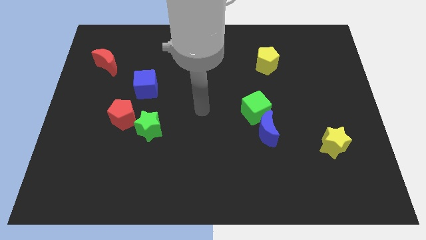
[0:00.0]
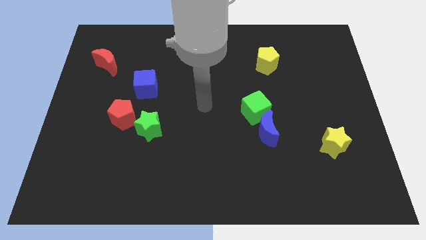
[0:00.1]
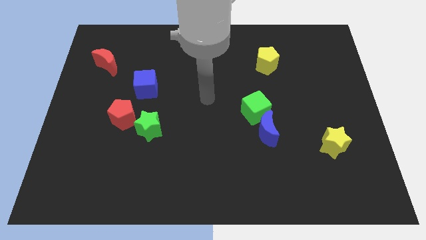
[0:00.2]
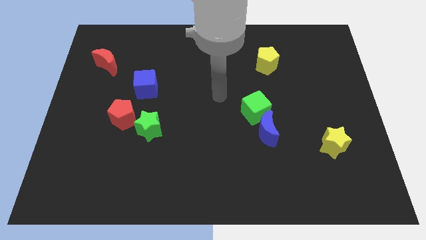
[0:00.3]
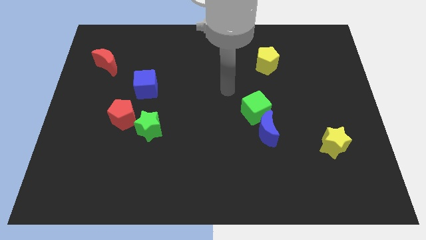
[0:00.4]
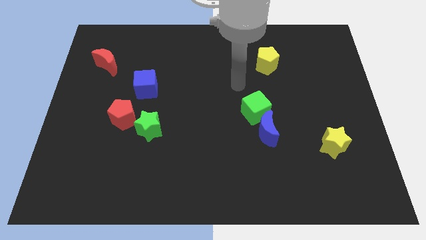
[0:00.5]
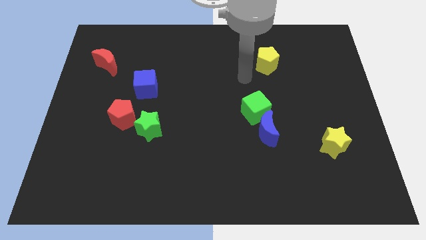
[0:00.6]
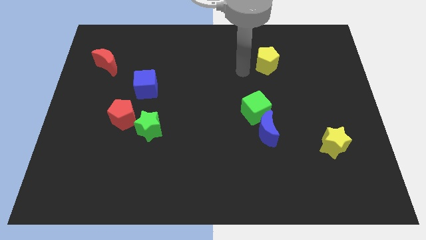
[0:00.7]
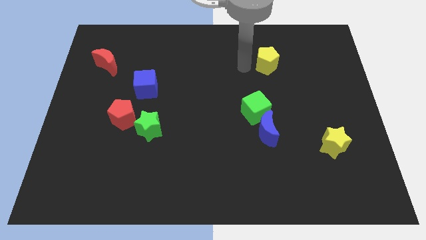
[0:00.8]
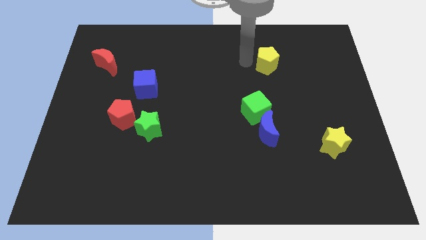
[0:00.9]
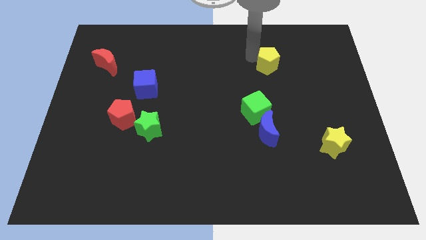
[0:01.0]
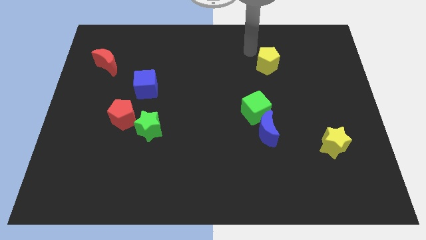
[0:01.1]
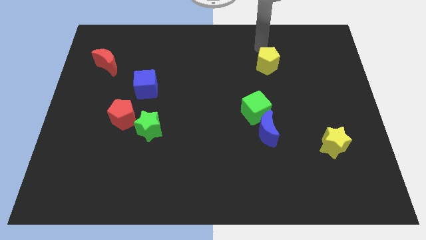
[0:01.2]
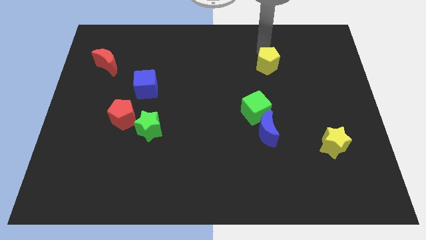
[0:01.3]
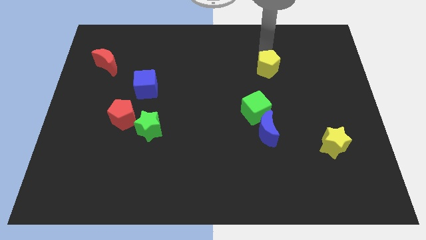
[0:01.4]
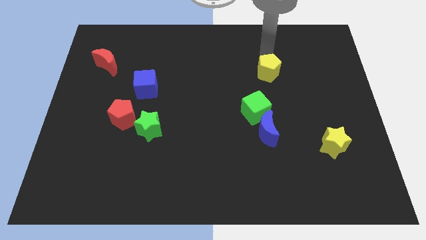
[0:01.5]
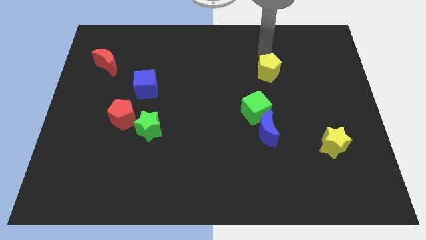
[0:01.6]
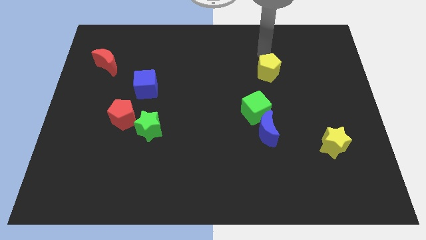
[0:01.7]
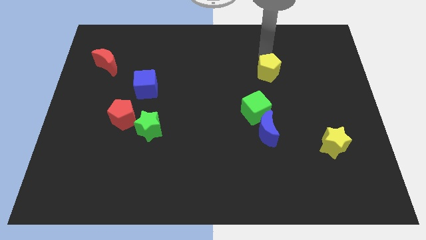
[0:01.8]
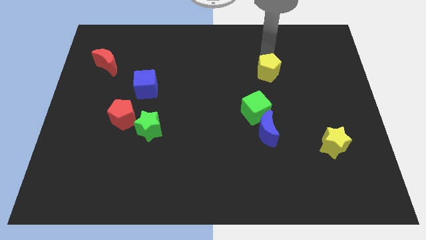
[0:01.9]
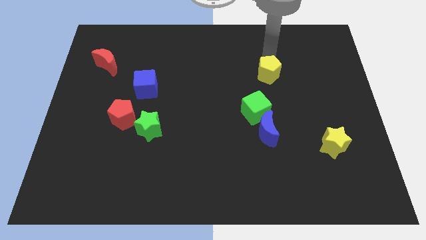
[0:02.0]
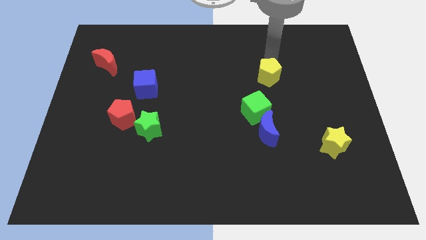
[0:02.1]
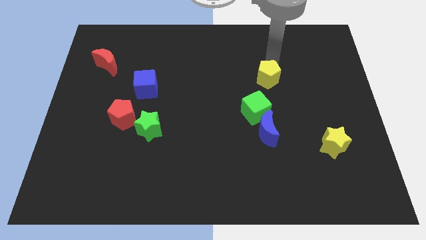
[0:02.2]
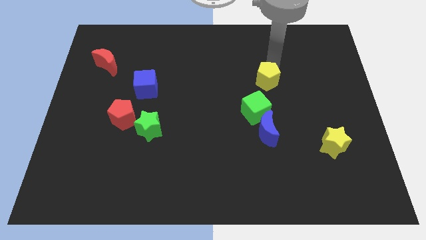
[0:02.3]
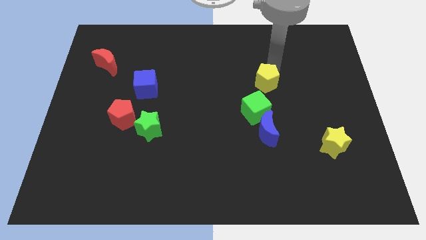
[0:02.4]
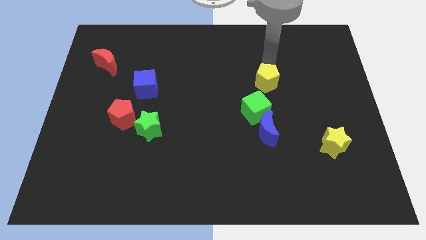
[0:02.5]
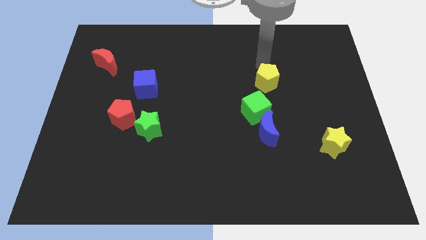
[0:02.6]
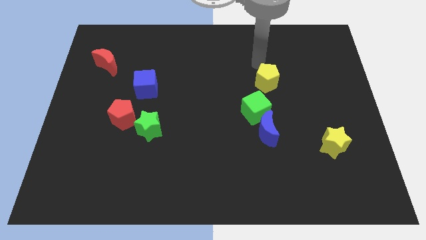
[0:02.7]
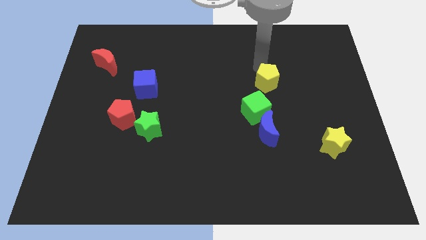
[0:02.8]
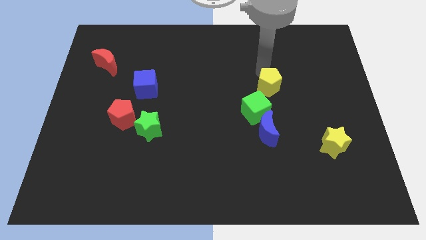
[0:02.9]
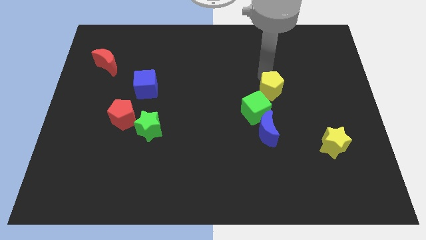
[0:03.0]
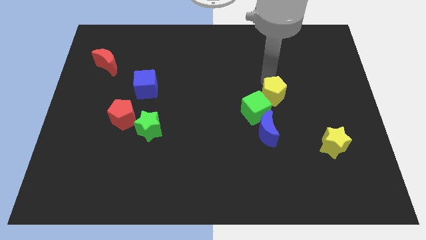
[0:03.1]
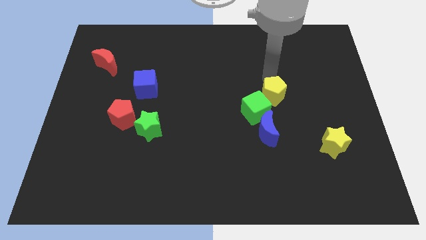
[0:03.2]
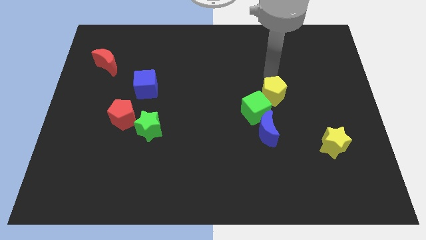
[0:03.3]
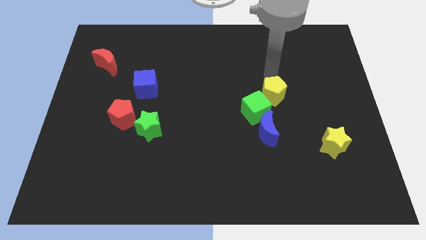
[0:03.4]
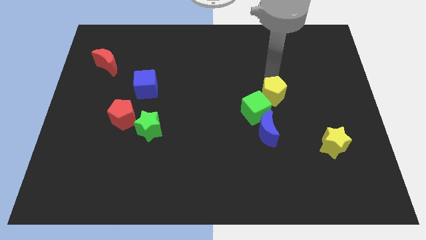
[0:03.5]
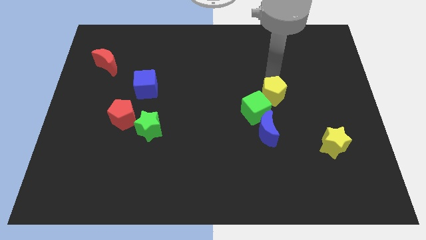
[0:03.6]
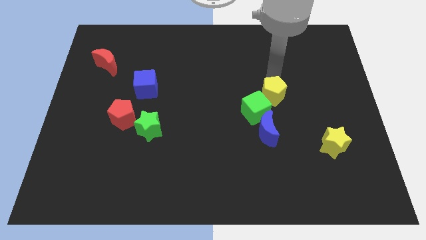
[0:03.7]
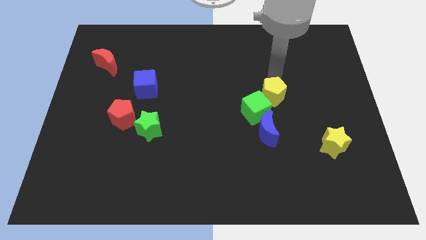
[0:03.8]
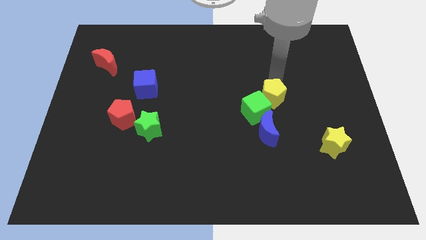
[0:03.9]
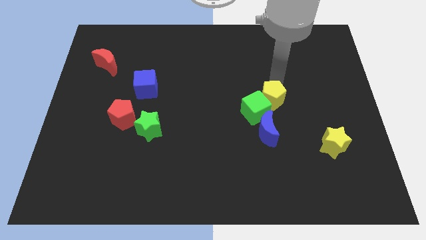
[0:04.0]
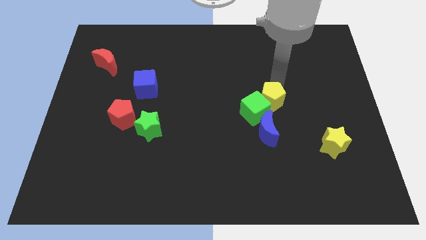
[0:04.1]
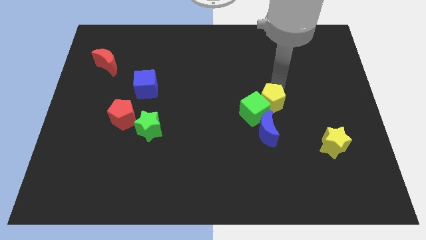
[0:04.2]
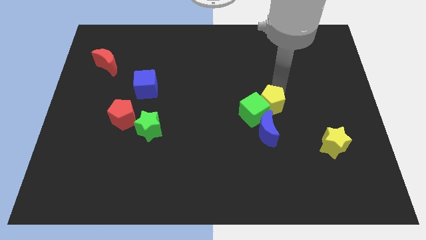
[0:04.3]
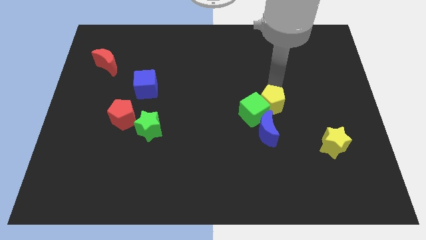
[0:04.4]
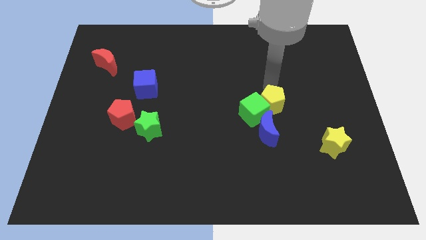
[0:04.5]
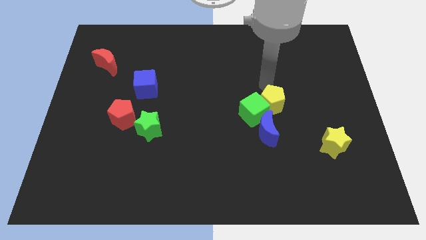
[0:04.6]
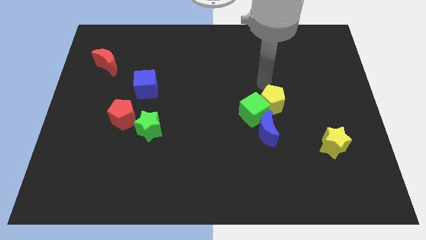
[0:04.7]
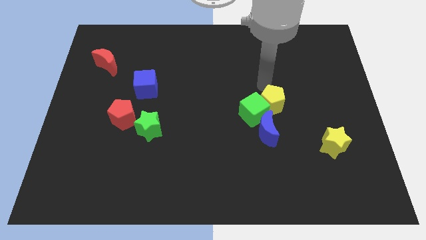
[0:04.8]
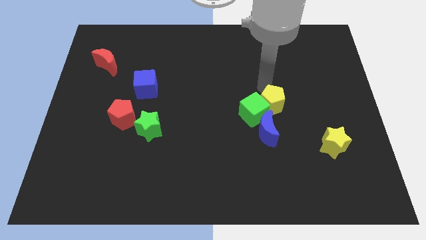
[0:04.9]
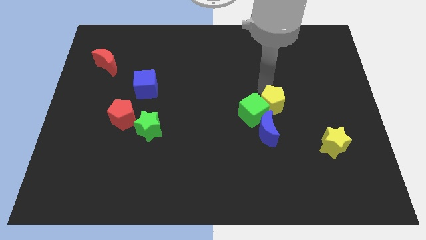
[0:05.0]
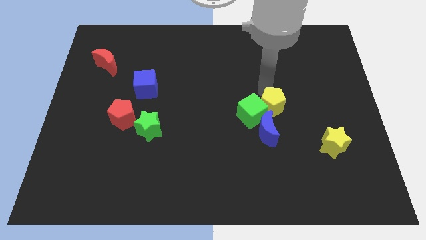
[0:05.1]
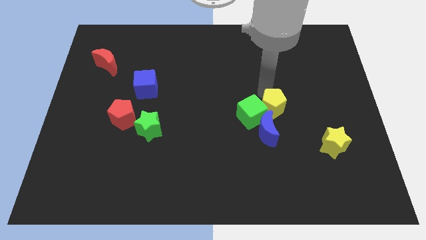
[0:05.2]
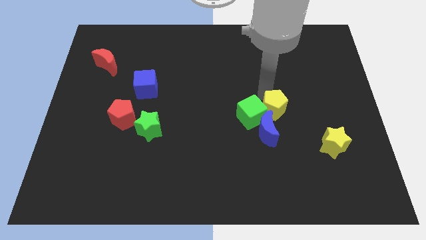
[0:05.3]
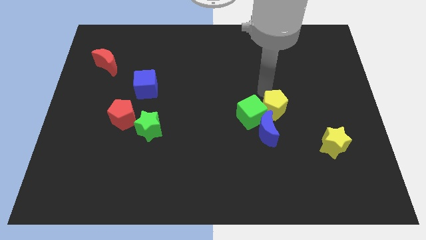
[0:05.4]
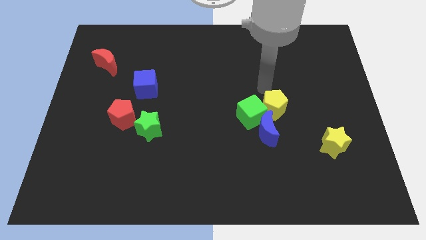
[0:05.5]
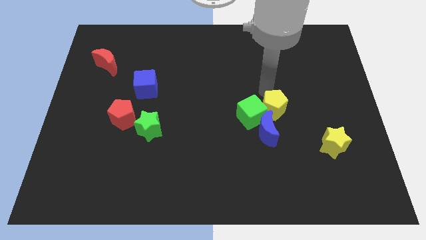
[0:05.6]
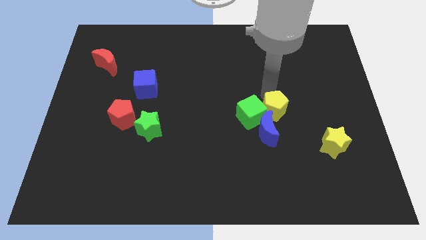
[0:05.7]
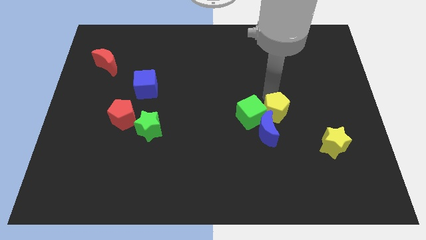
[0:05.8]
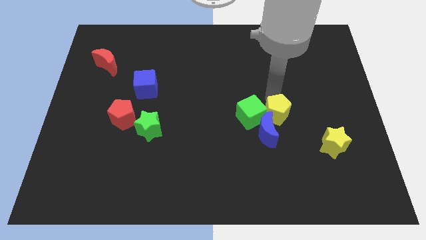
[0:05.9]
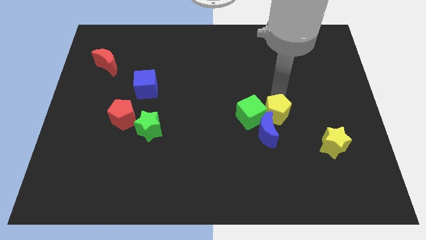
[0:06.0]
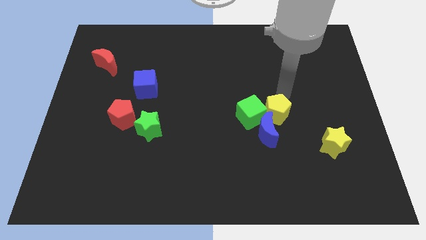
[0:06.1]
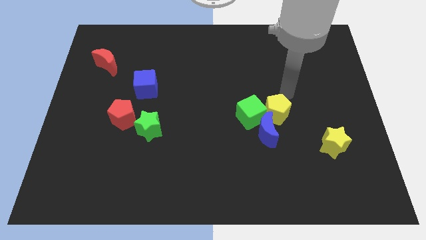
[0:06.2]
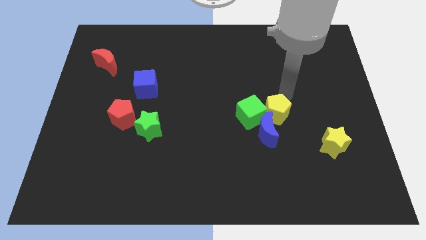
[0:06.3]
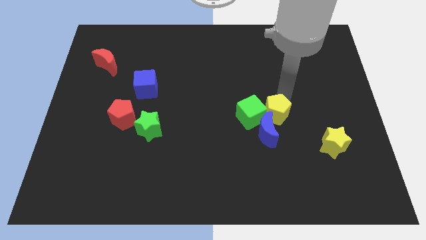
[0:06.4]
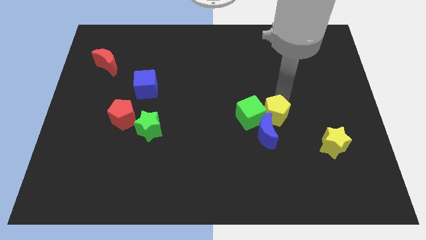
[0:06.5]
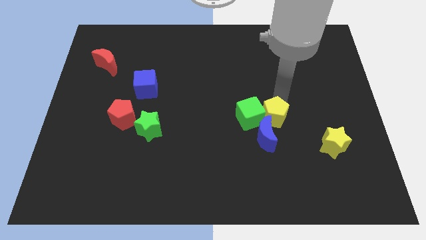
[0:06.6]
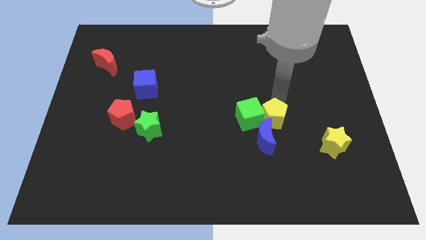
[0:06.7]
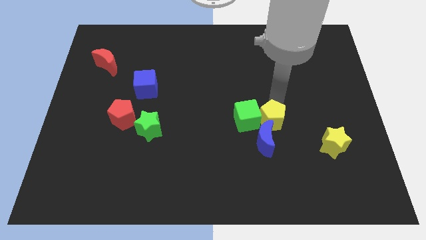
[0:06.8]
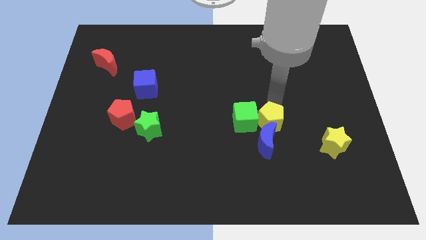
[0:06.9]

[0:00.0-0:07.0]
push the yellow pentagon to the blue moon
